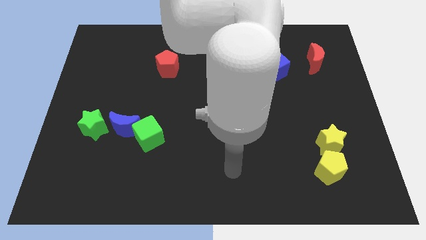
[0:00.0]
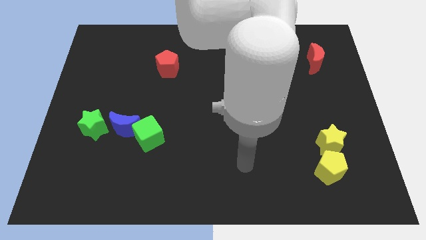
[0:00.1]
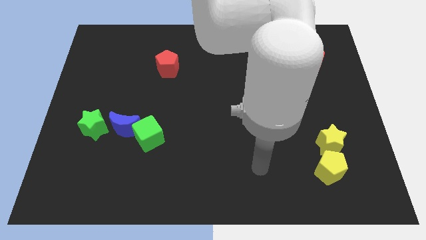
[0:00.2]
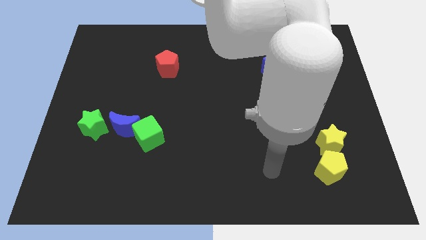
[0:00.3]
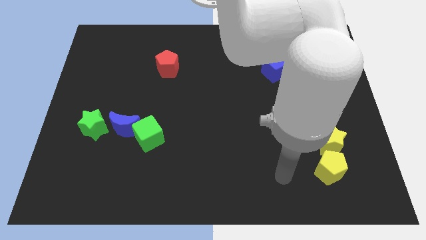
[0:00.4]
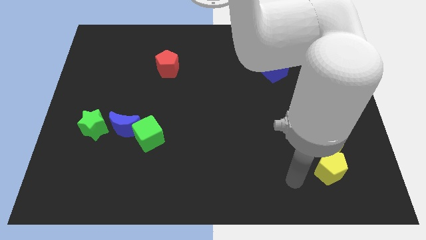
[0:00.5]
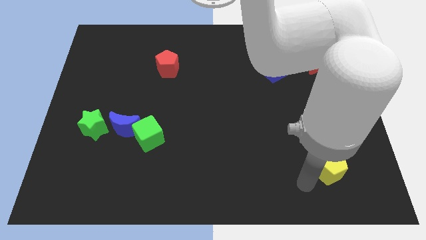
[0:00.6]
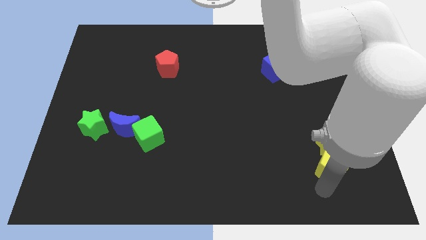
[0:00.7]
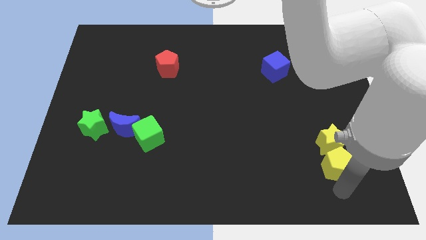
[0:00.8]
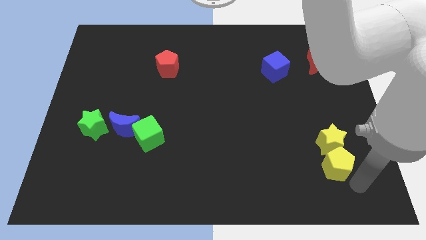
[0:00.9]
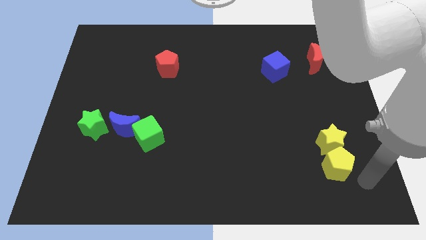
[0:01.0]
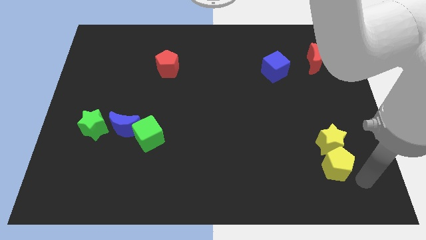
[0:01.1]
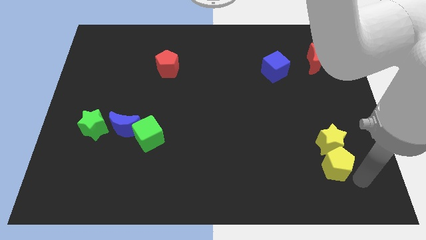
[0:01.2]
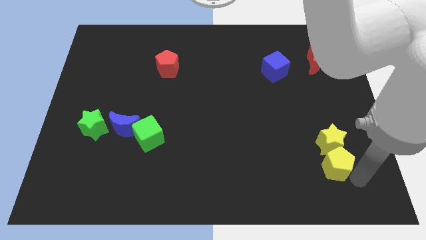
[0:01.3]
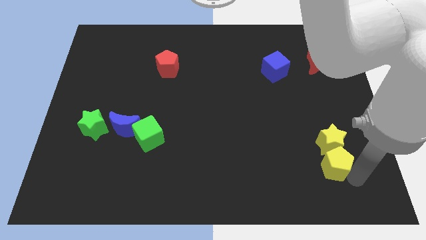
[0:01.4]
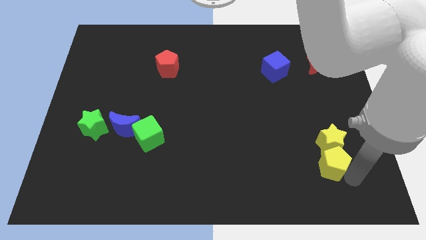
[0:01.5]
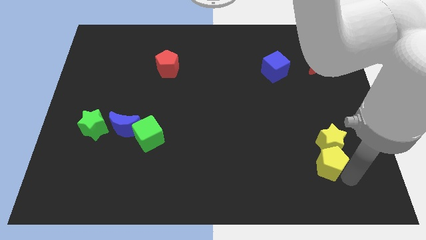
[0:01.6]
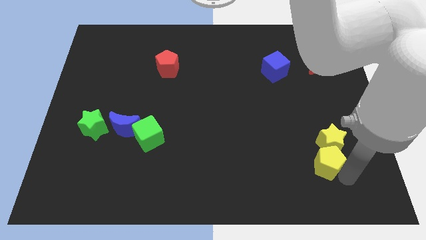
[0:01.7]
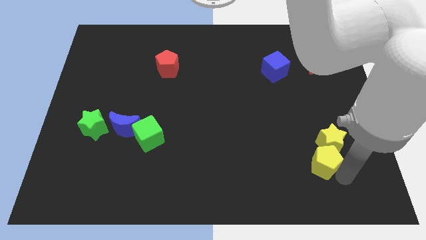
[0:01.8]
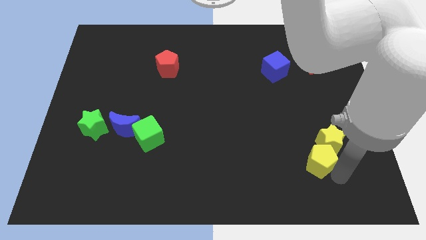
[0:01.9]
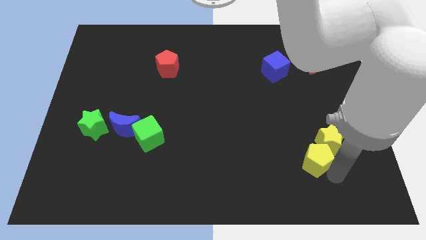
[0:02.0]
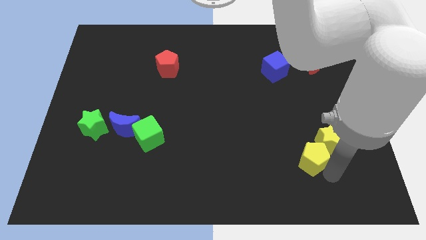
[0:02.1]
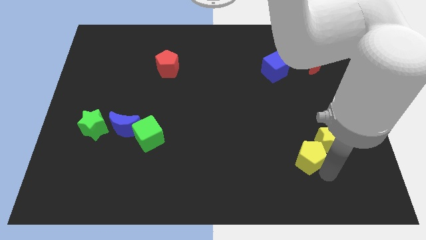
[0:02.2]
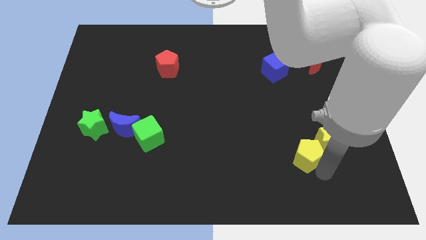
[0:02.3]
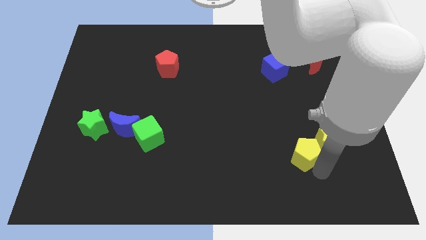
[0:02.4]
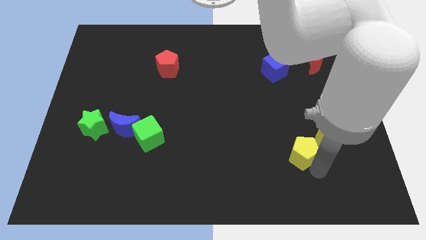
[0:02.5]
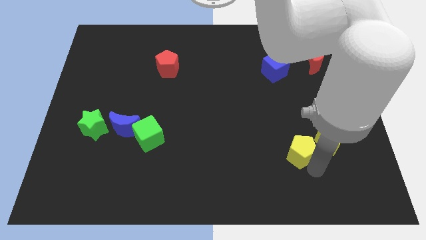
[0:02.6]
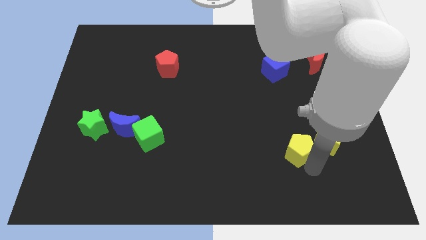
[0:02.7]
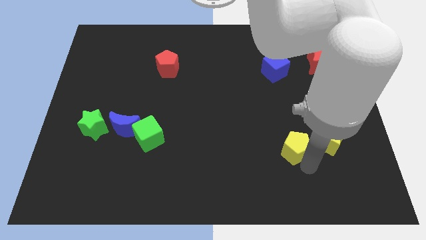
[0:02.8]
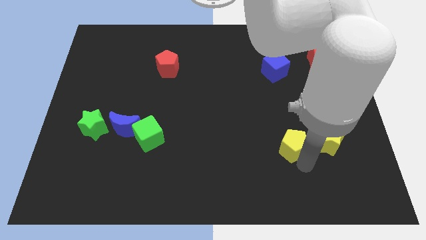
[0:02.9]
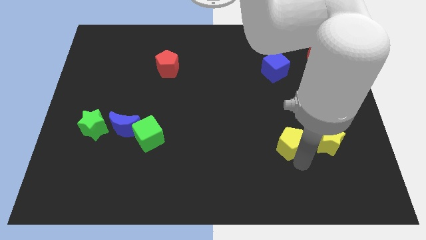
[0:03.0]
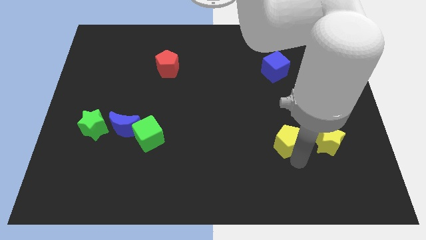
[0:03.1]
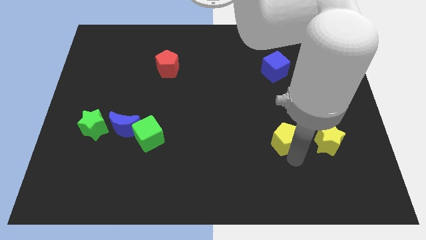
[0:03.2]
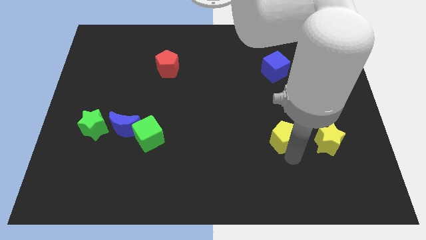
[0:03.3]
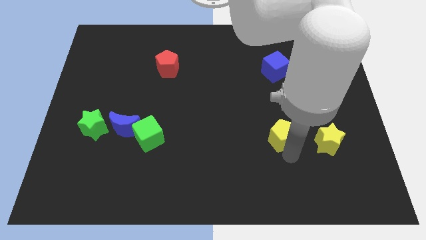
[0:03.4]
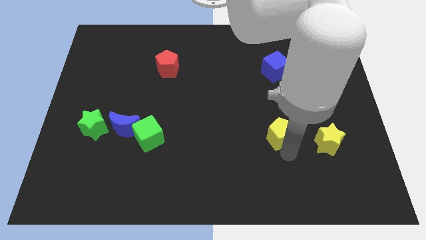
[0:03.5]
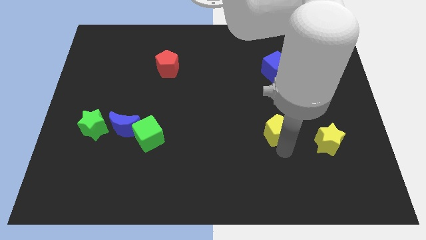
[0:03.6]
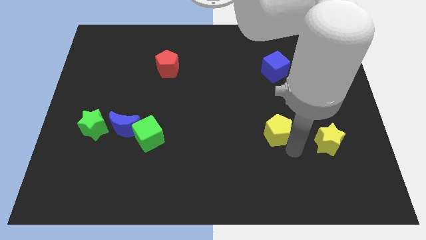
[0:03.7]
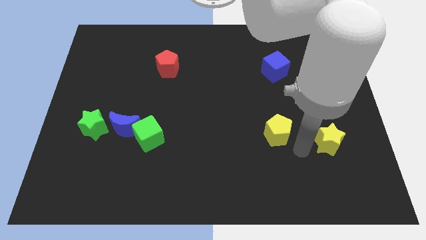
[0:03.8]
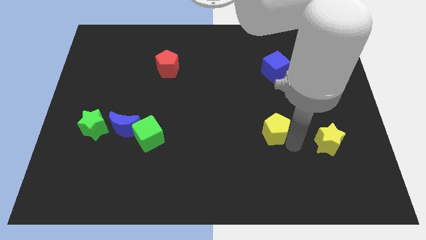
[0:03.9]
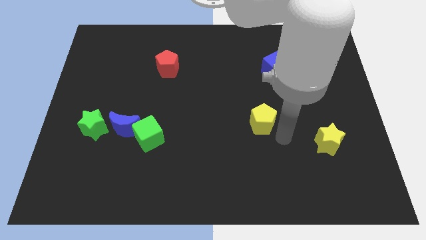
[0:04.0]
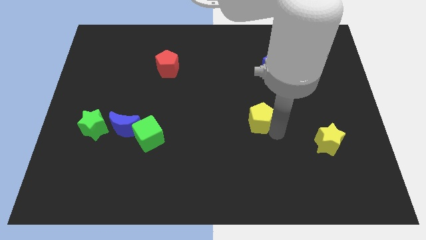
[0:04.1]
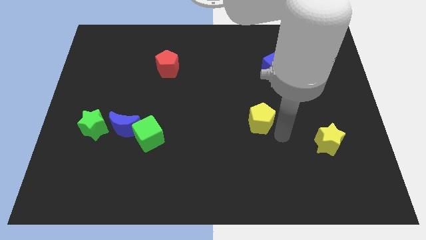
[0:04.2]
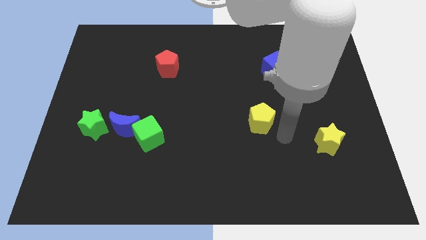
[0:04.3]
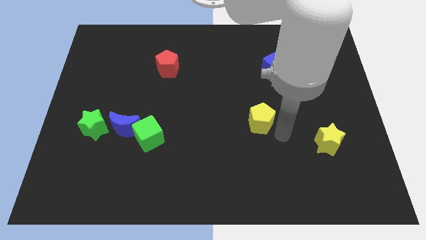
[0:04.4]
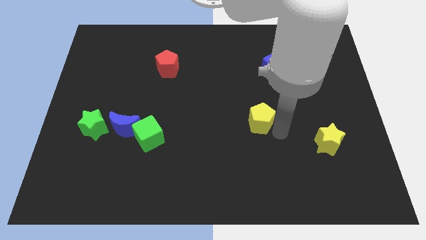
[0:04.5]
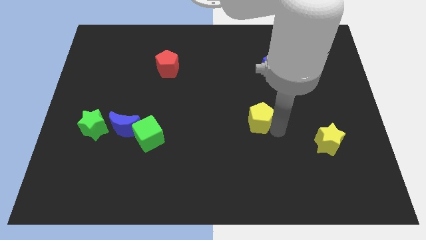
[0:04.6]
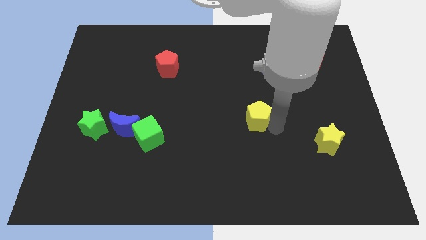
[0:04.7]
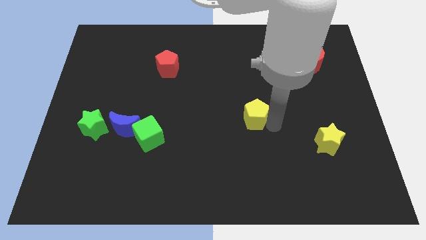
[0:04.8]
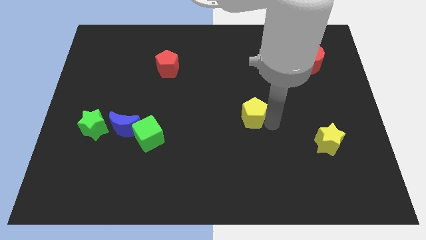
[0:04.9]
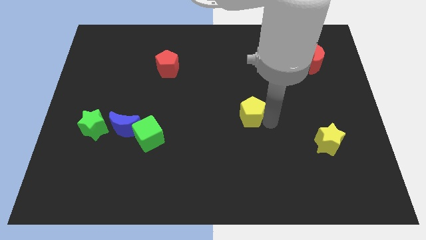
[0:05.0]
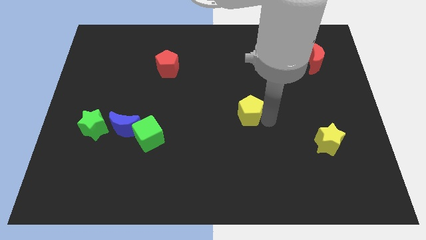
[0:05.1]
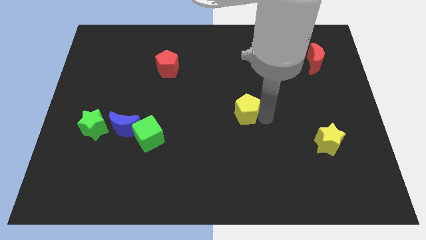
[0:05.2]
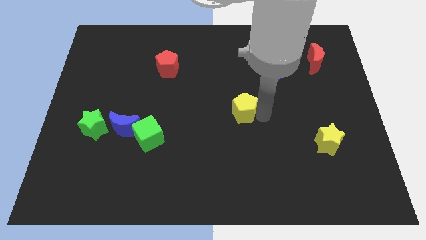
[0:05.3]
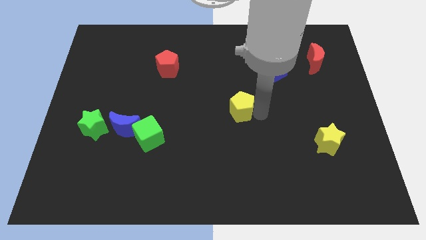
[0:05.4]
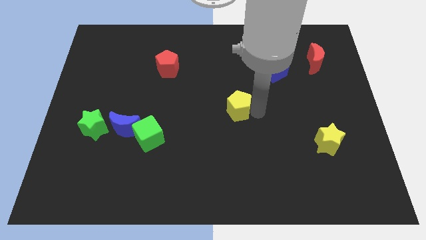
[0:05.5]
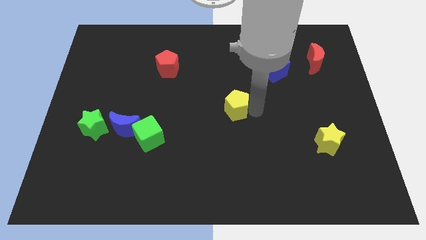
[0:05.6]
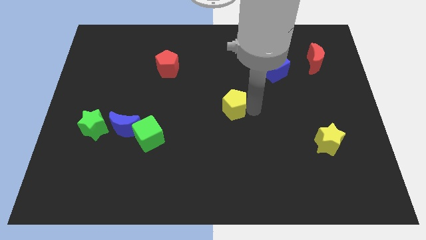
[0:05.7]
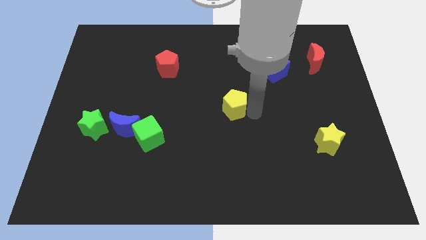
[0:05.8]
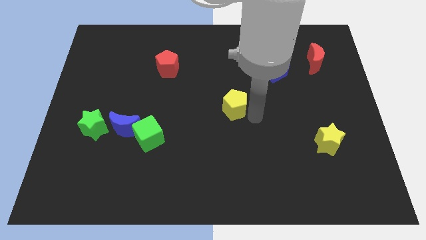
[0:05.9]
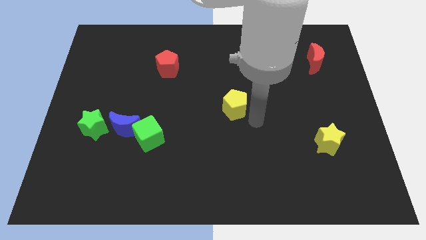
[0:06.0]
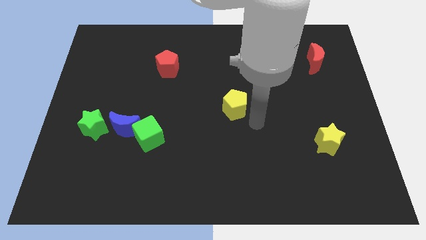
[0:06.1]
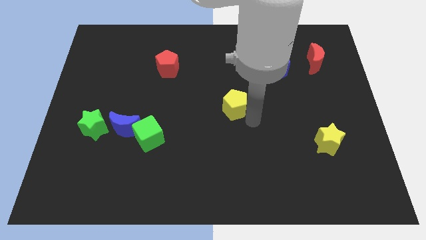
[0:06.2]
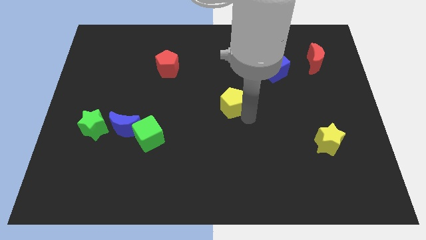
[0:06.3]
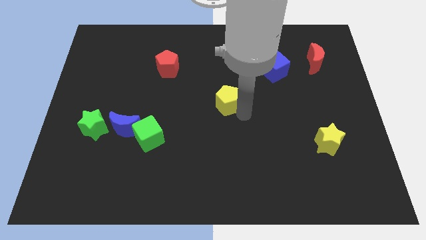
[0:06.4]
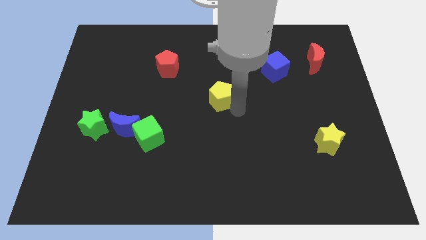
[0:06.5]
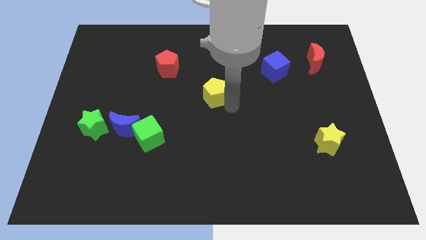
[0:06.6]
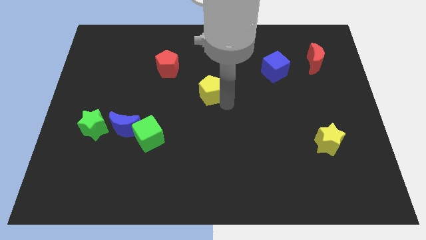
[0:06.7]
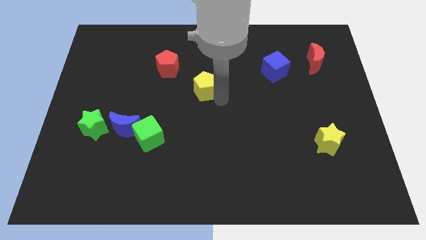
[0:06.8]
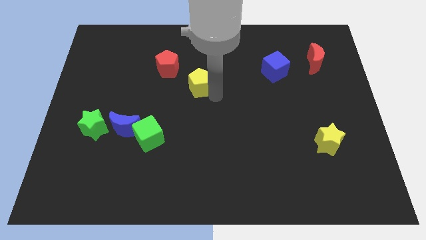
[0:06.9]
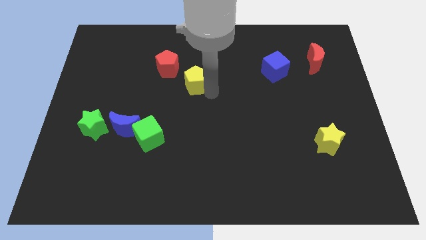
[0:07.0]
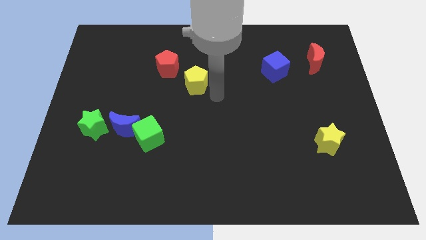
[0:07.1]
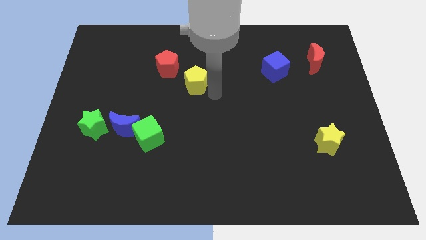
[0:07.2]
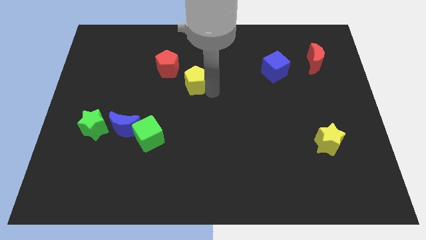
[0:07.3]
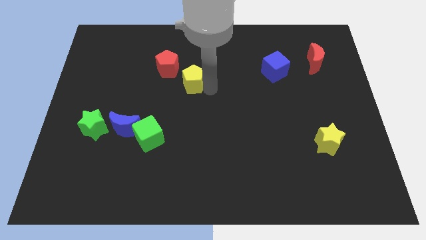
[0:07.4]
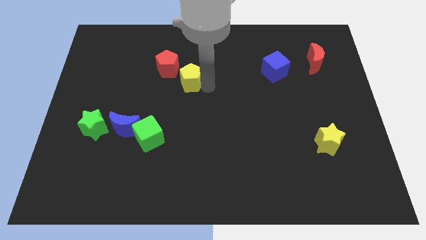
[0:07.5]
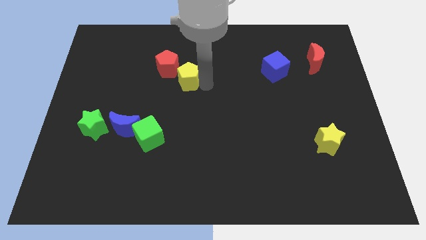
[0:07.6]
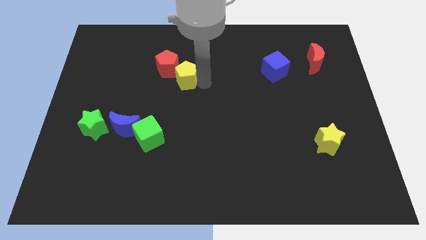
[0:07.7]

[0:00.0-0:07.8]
move the yellow pentagon close to the red pentagon
